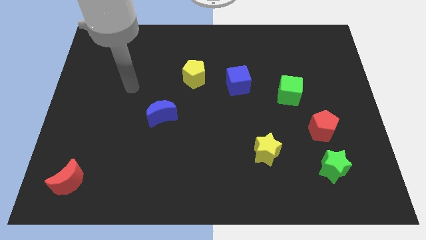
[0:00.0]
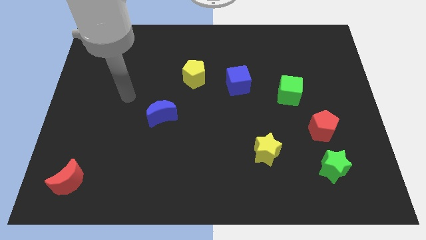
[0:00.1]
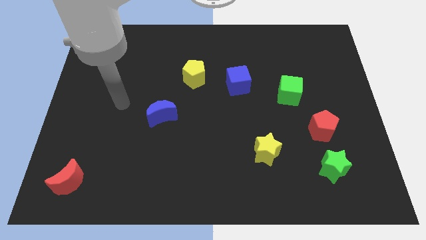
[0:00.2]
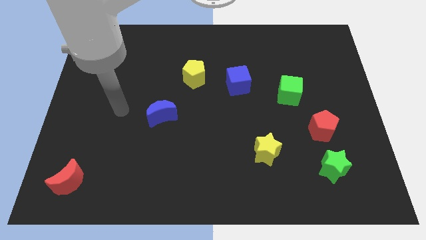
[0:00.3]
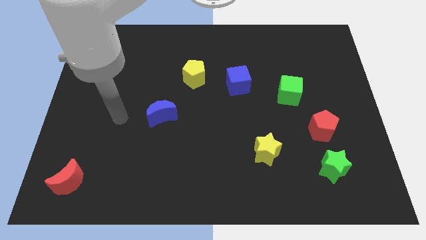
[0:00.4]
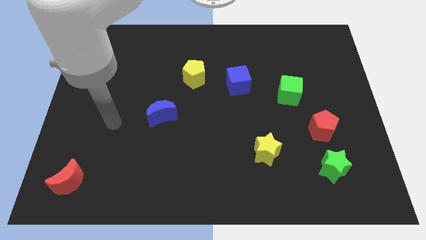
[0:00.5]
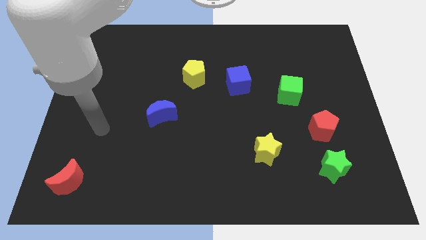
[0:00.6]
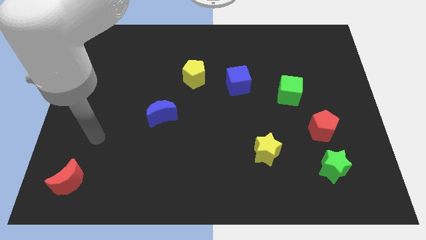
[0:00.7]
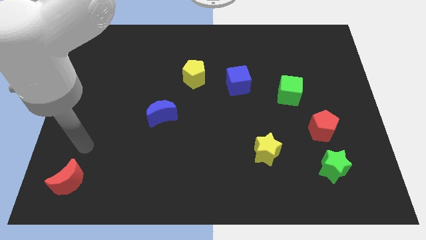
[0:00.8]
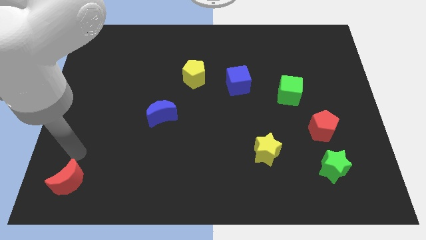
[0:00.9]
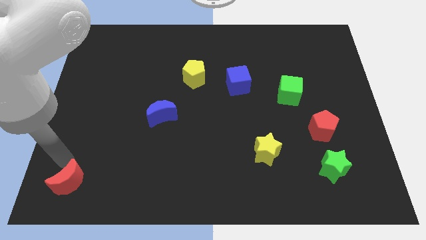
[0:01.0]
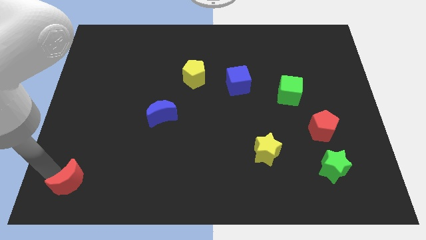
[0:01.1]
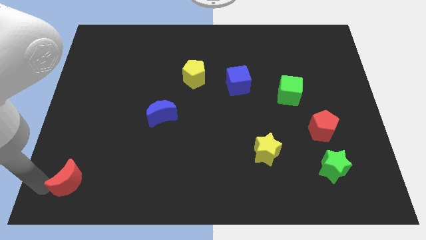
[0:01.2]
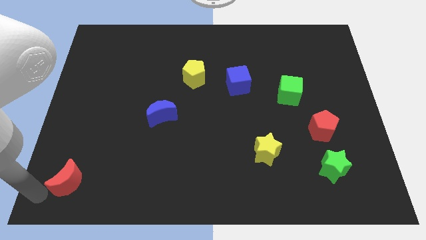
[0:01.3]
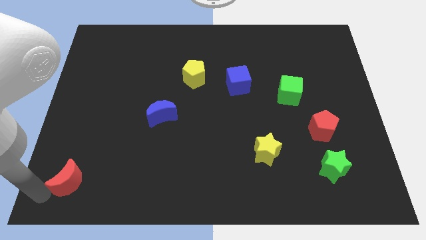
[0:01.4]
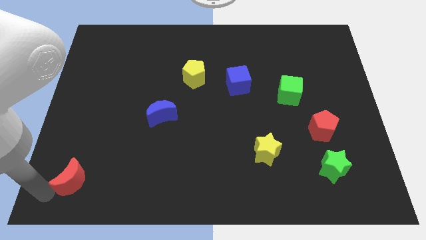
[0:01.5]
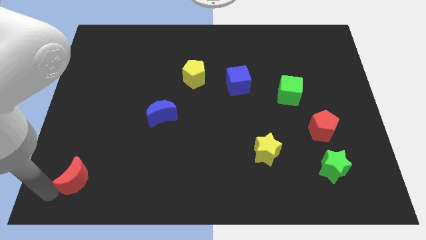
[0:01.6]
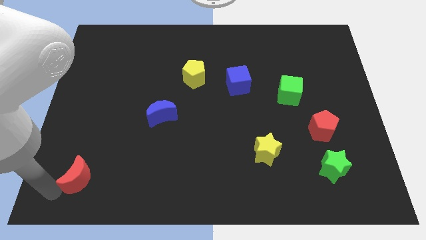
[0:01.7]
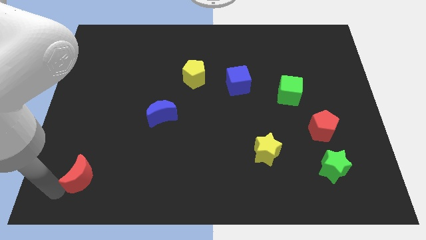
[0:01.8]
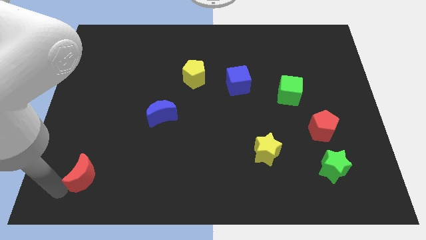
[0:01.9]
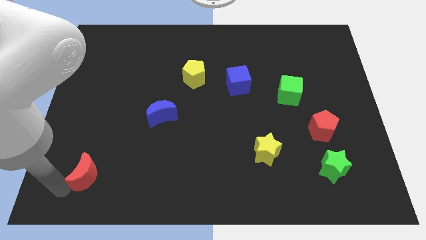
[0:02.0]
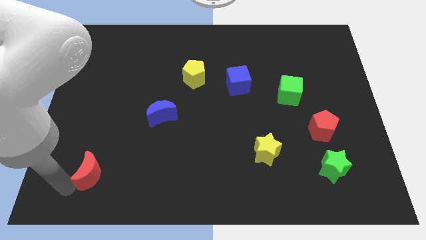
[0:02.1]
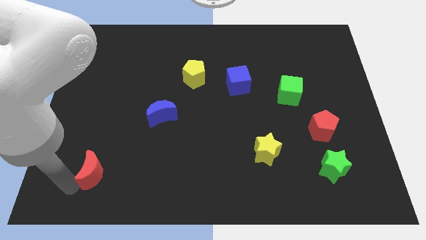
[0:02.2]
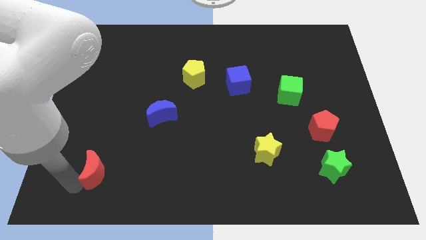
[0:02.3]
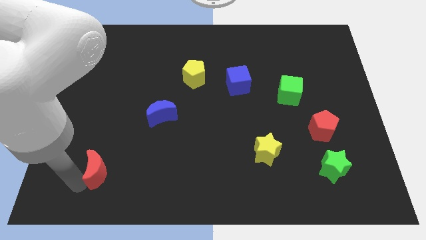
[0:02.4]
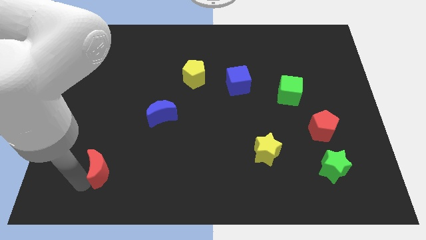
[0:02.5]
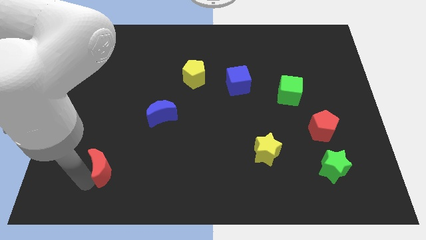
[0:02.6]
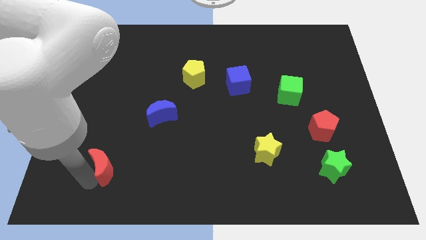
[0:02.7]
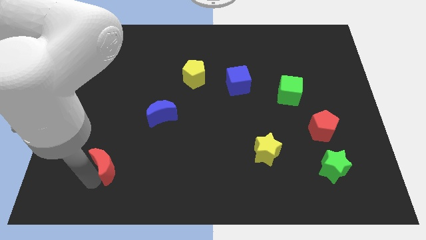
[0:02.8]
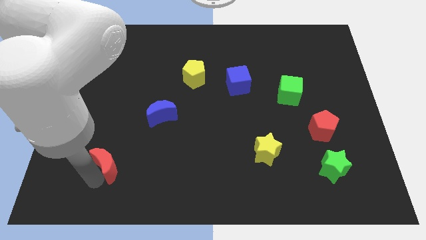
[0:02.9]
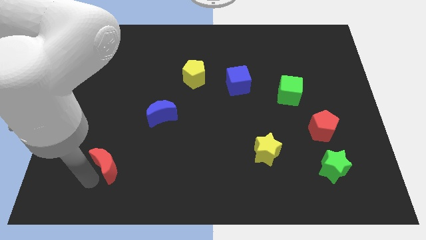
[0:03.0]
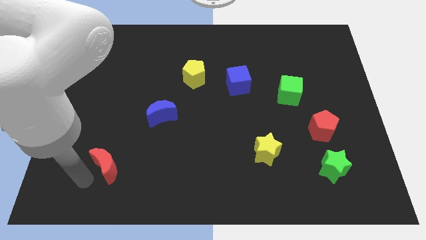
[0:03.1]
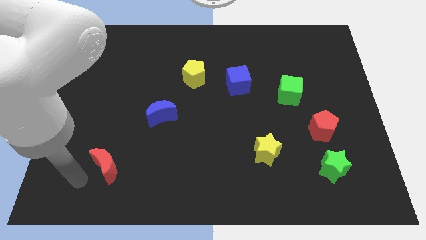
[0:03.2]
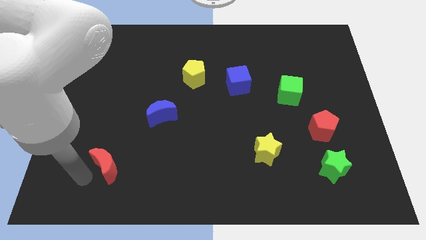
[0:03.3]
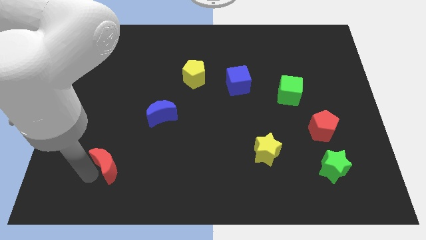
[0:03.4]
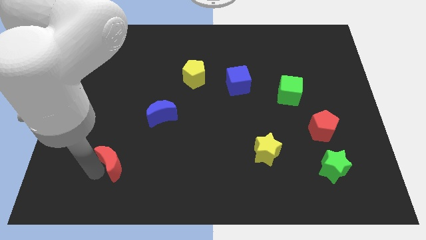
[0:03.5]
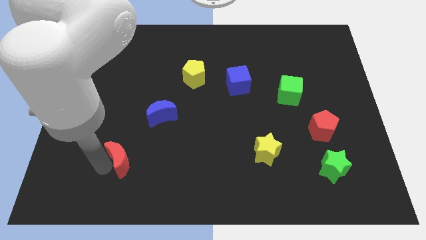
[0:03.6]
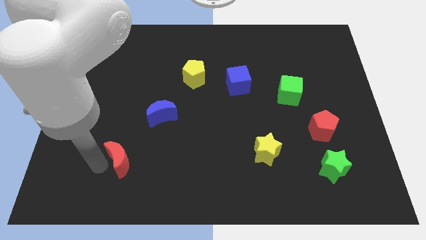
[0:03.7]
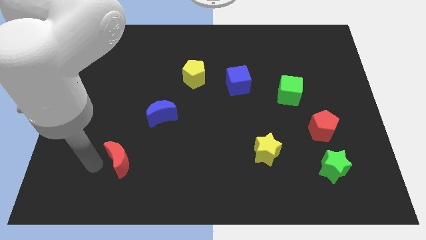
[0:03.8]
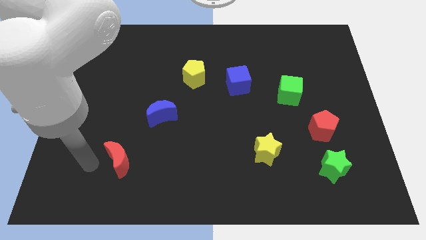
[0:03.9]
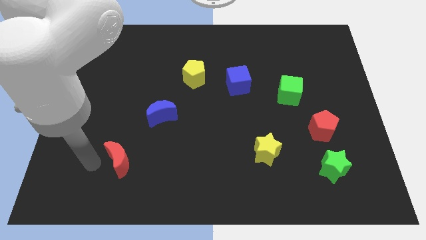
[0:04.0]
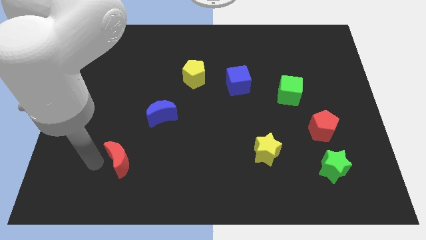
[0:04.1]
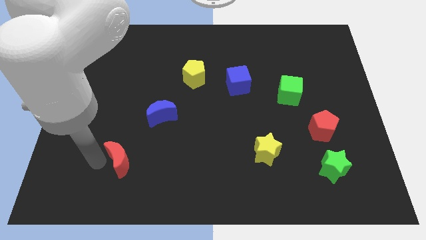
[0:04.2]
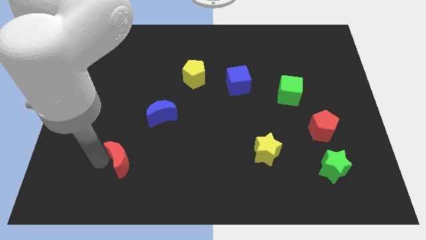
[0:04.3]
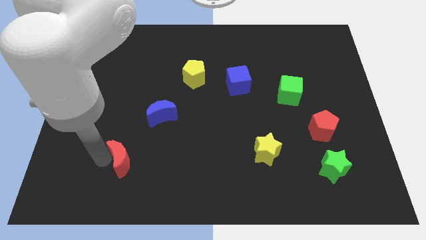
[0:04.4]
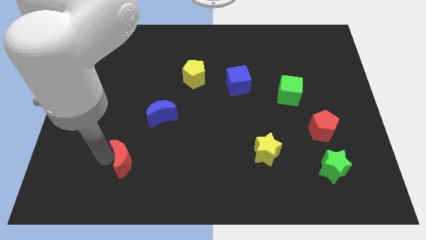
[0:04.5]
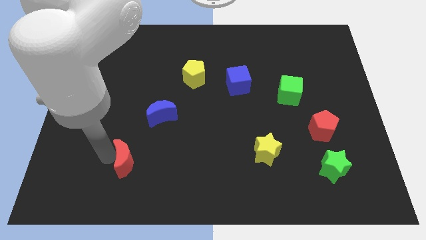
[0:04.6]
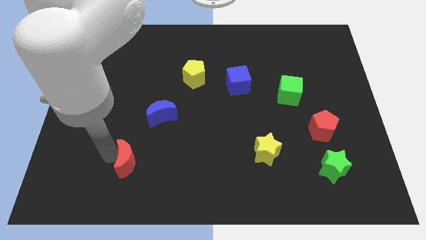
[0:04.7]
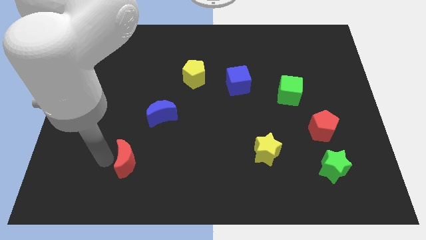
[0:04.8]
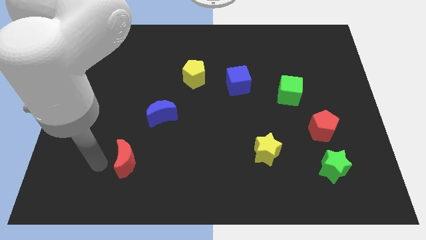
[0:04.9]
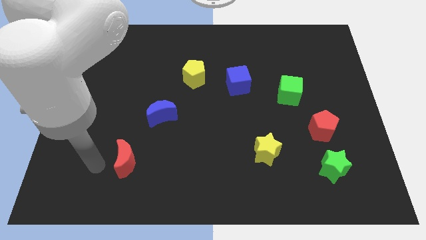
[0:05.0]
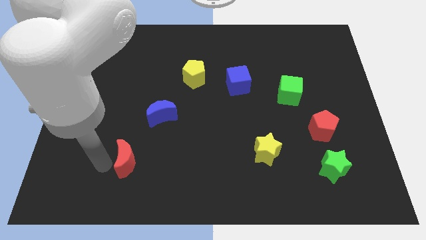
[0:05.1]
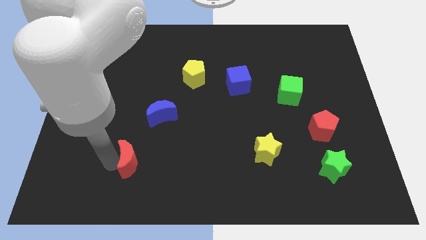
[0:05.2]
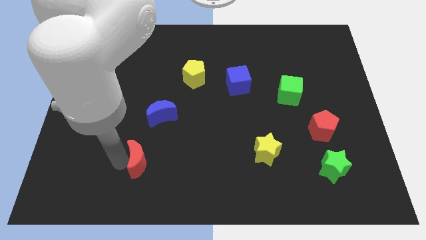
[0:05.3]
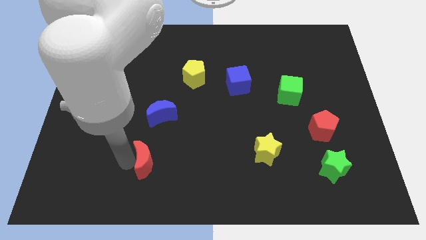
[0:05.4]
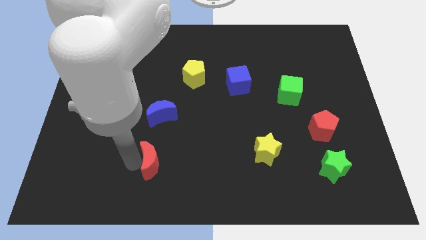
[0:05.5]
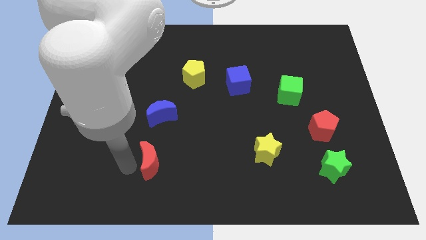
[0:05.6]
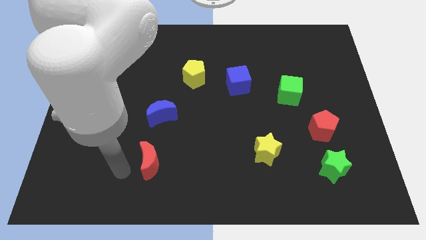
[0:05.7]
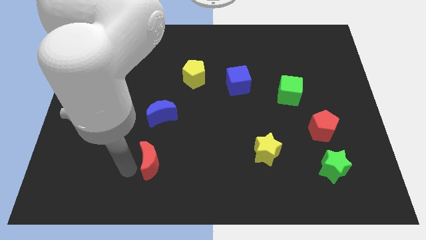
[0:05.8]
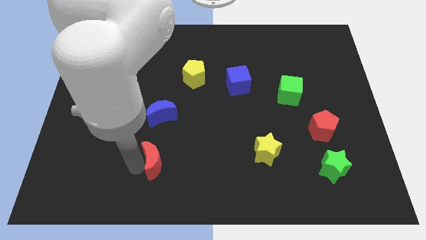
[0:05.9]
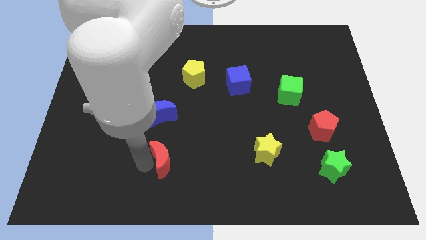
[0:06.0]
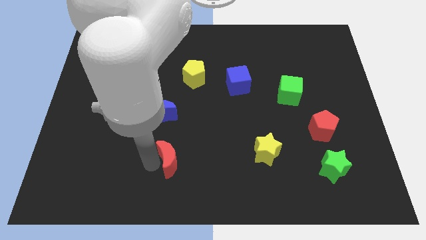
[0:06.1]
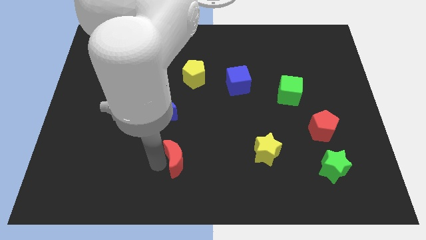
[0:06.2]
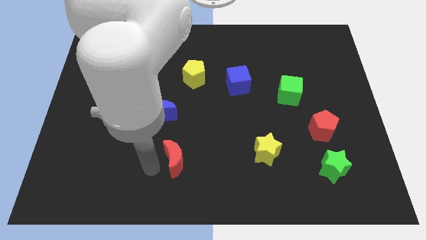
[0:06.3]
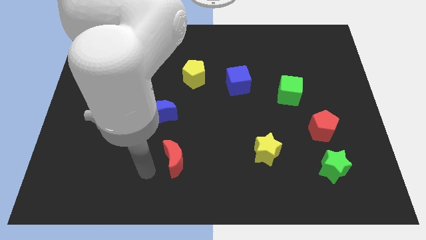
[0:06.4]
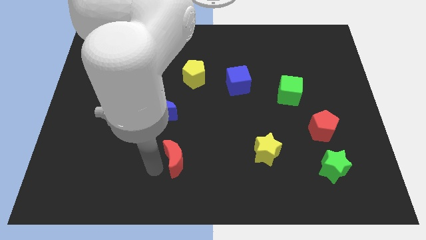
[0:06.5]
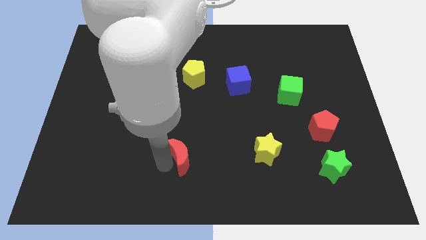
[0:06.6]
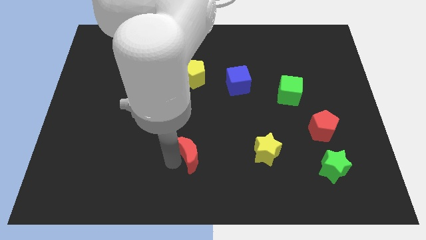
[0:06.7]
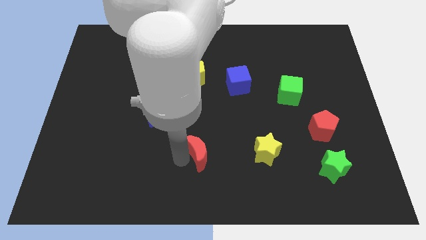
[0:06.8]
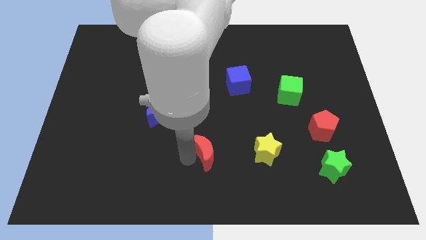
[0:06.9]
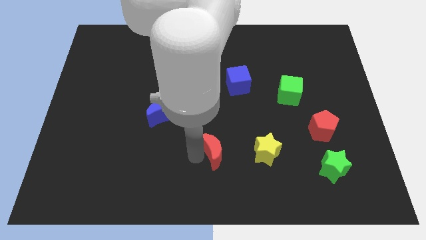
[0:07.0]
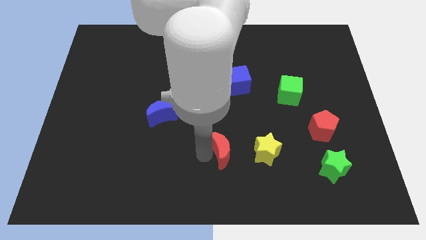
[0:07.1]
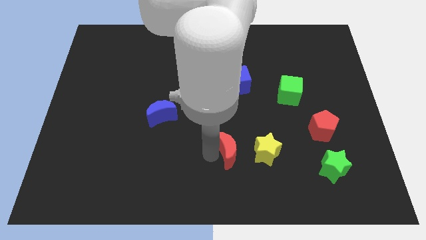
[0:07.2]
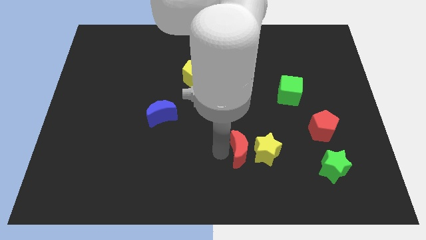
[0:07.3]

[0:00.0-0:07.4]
slide the red moon close to the yellow star

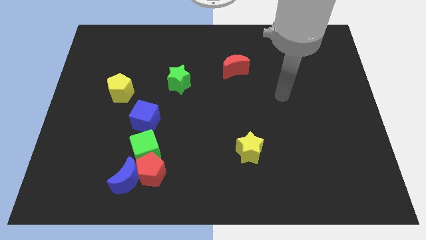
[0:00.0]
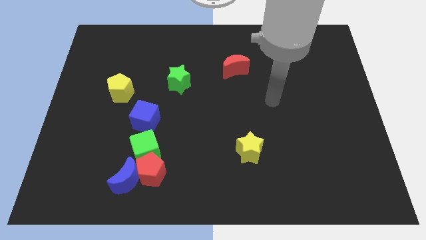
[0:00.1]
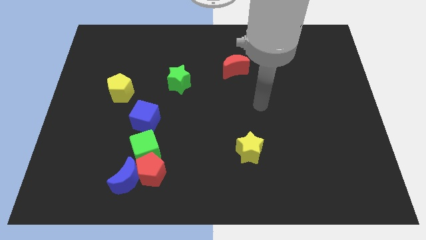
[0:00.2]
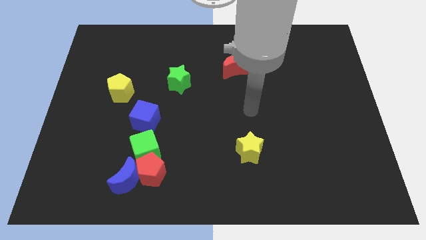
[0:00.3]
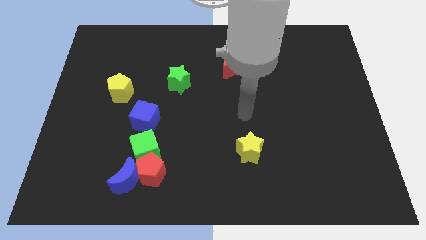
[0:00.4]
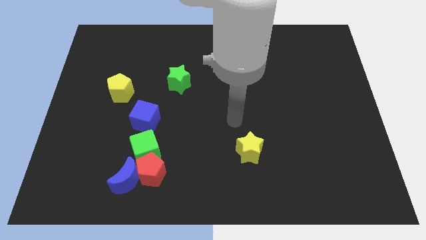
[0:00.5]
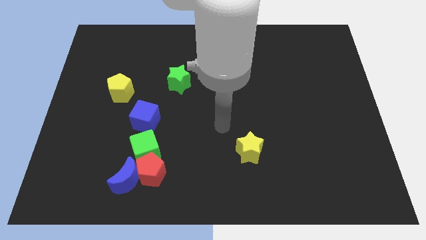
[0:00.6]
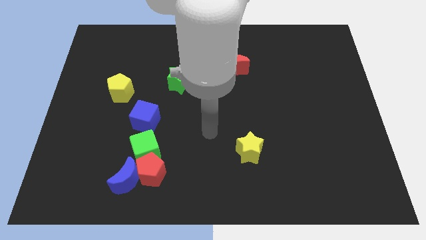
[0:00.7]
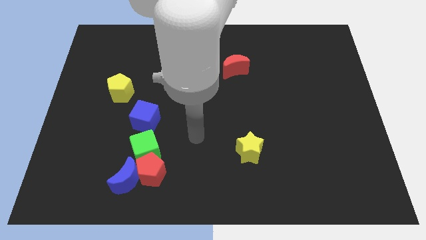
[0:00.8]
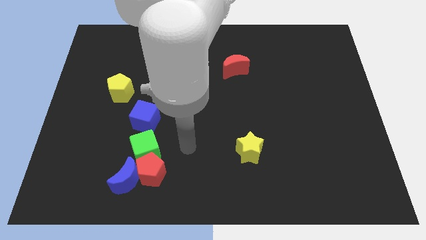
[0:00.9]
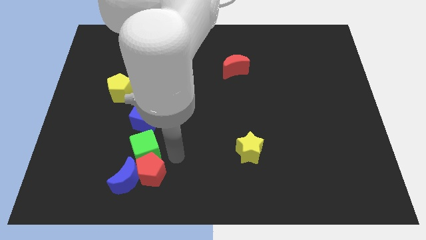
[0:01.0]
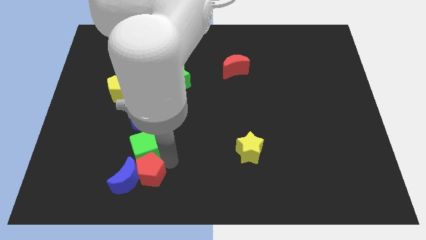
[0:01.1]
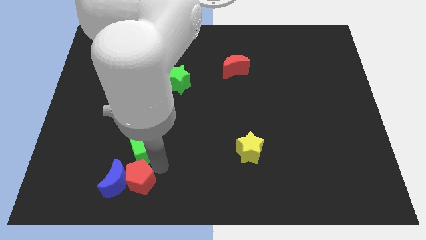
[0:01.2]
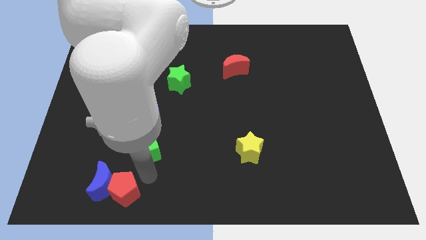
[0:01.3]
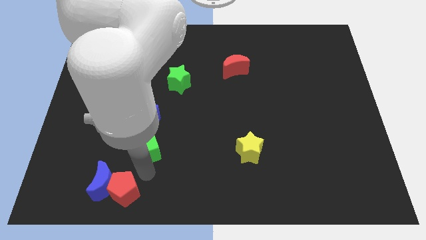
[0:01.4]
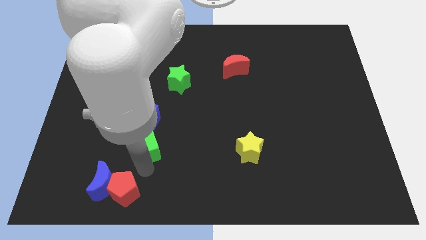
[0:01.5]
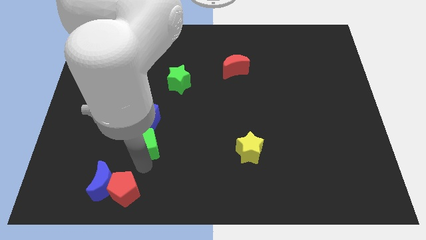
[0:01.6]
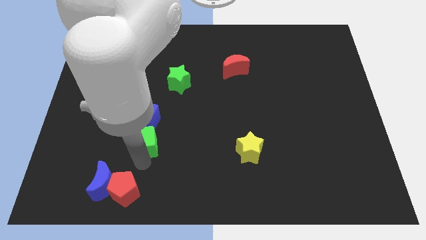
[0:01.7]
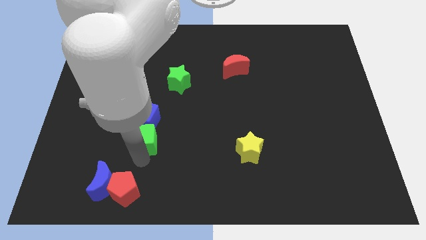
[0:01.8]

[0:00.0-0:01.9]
slide the green cube next to the blue cube
